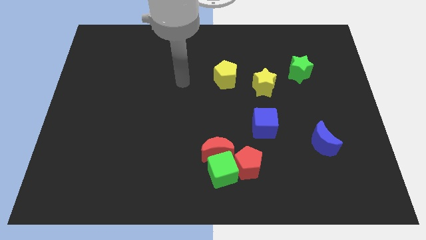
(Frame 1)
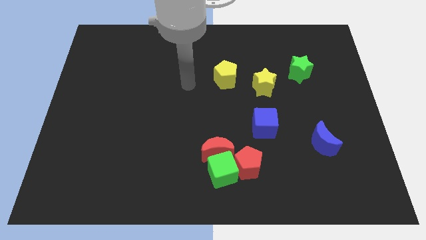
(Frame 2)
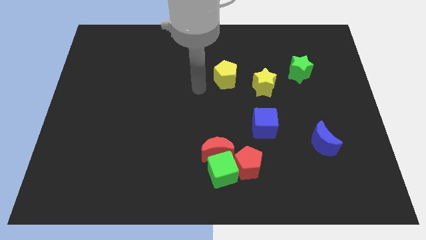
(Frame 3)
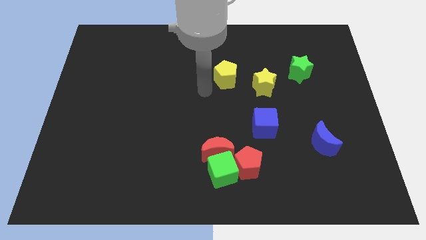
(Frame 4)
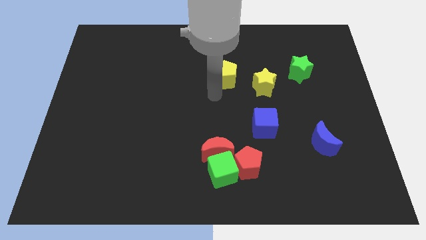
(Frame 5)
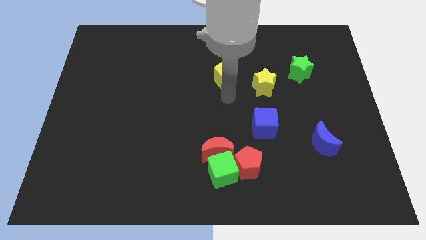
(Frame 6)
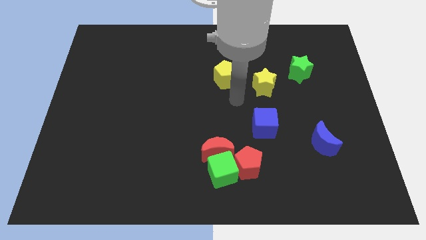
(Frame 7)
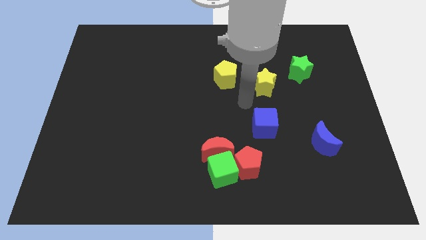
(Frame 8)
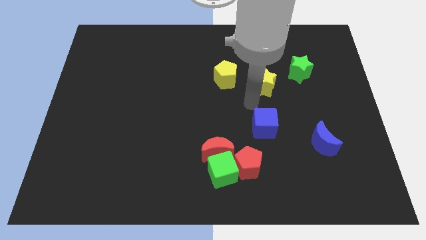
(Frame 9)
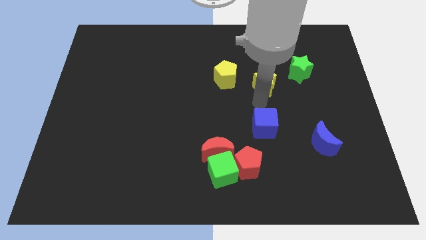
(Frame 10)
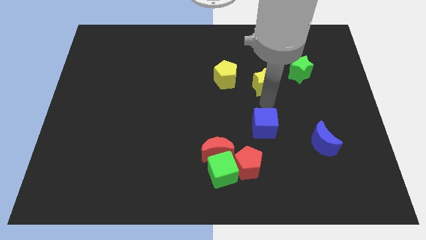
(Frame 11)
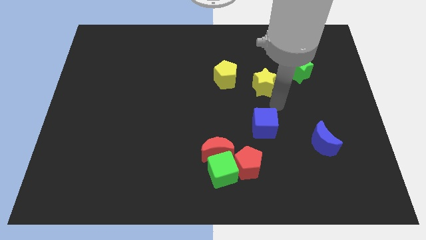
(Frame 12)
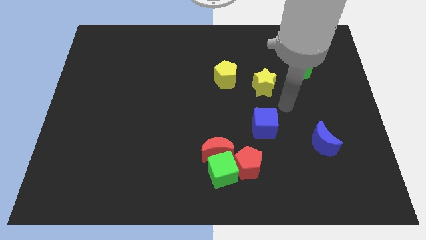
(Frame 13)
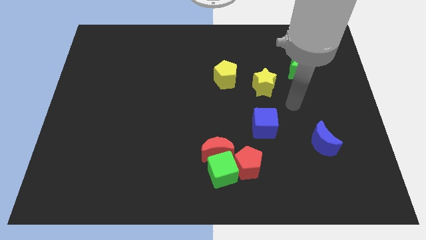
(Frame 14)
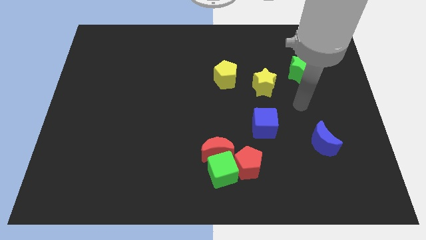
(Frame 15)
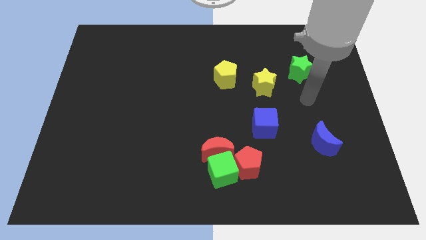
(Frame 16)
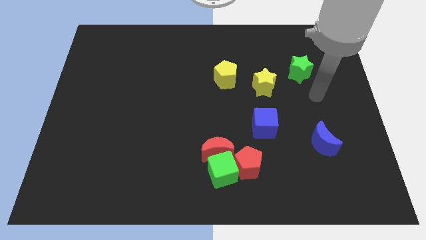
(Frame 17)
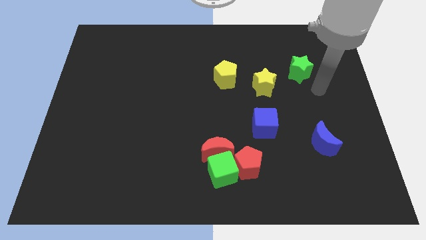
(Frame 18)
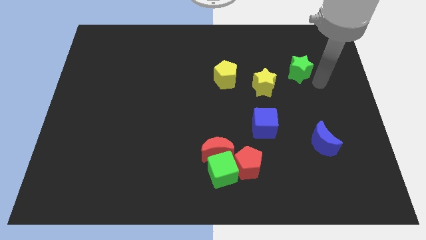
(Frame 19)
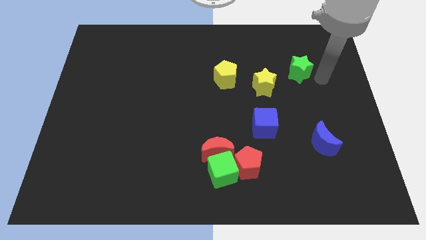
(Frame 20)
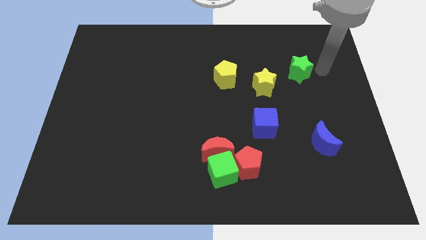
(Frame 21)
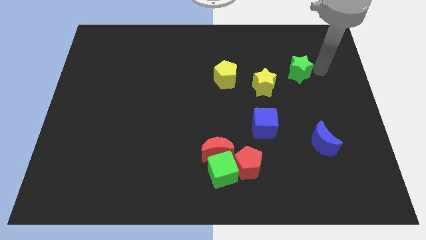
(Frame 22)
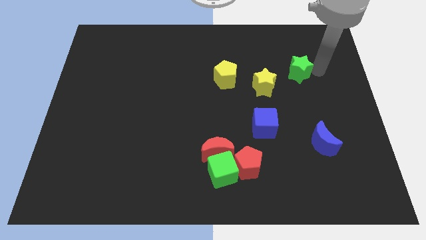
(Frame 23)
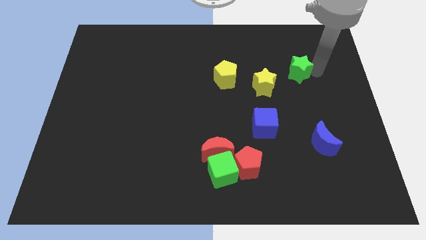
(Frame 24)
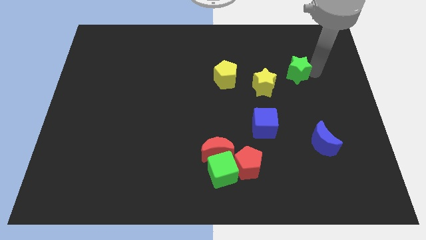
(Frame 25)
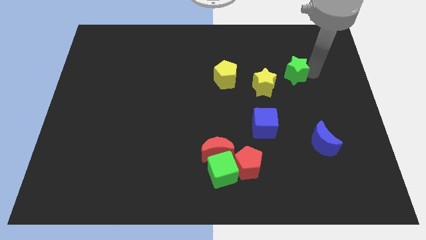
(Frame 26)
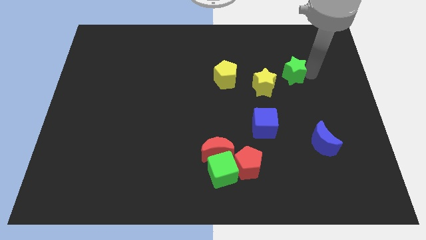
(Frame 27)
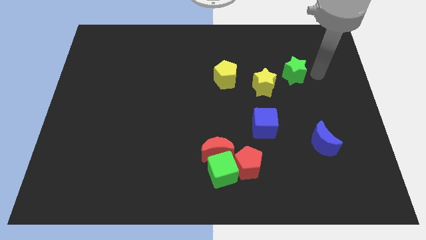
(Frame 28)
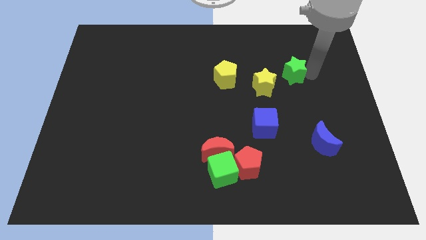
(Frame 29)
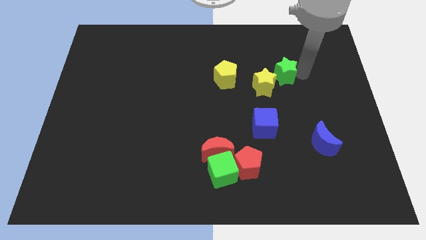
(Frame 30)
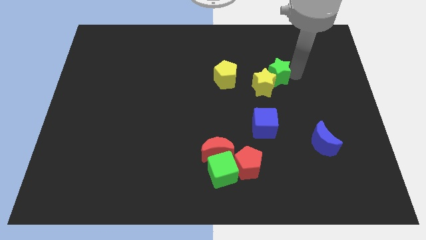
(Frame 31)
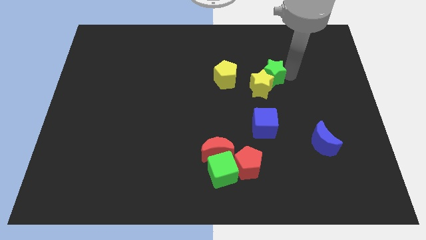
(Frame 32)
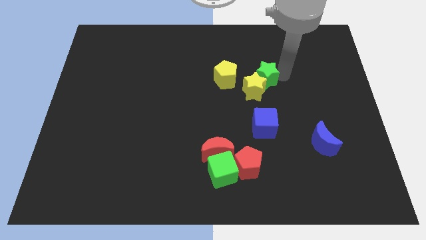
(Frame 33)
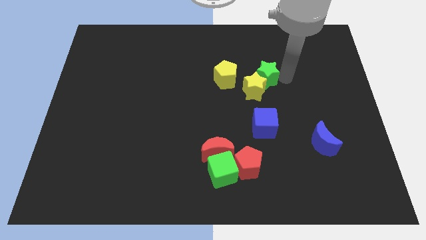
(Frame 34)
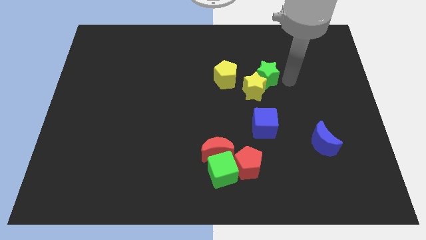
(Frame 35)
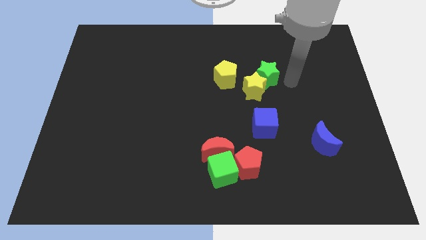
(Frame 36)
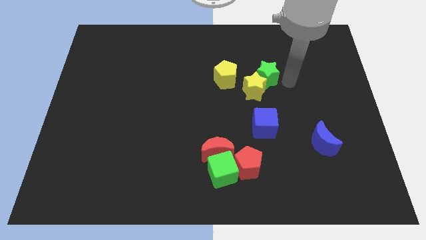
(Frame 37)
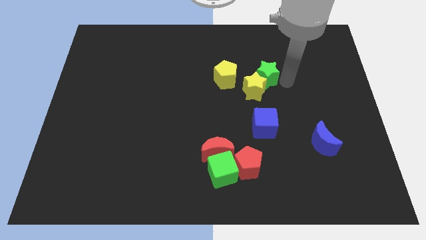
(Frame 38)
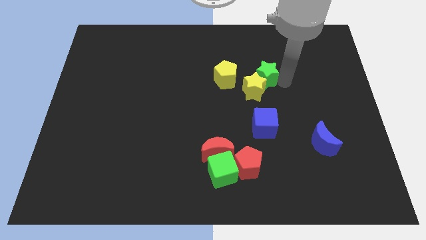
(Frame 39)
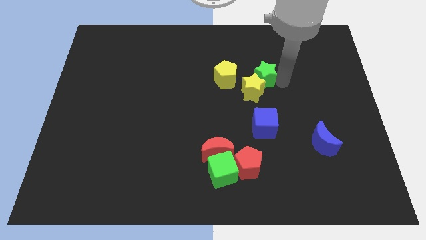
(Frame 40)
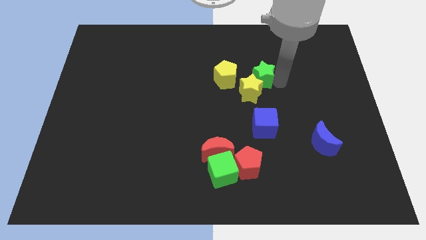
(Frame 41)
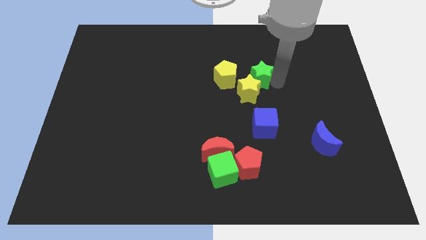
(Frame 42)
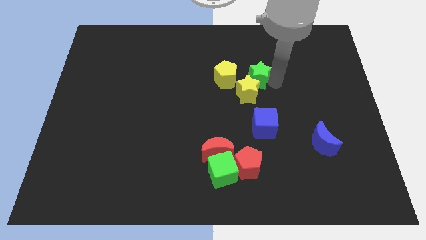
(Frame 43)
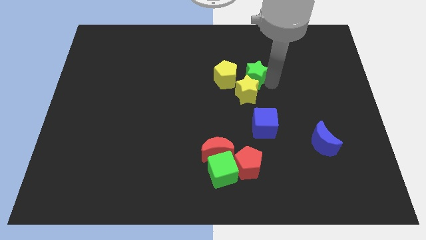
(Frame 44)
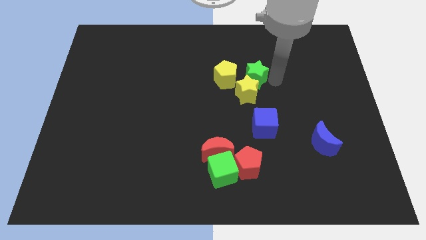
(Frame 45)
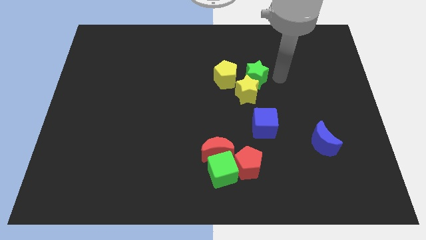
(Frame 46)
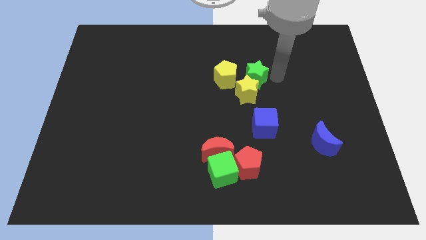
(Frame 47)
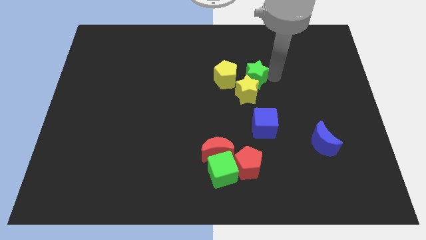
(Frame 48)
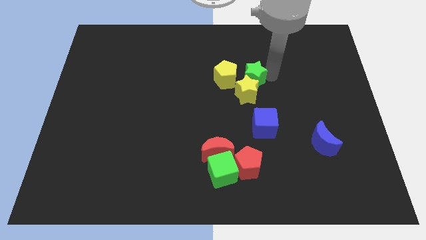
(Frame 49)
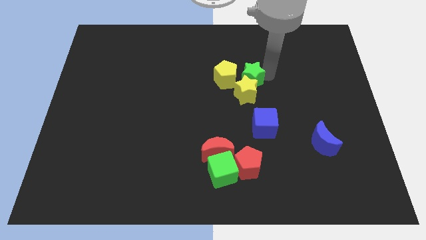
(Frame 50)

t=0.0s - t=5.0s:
put the green star to the yellow pentagon

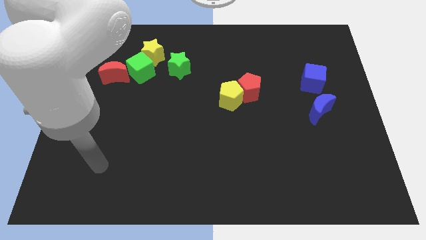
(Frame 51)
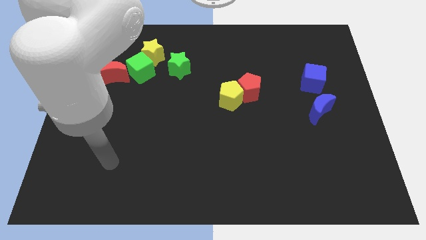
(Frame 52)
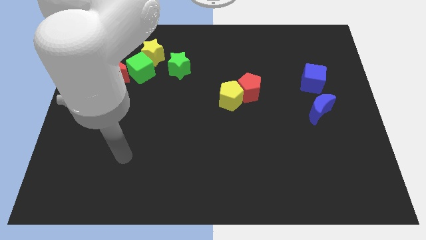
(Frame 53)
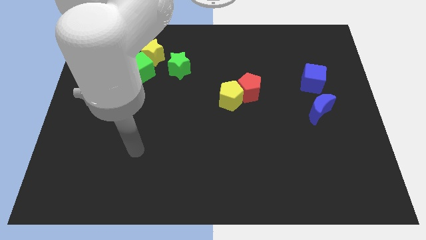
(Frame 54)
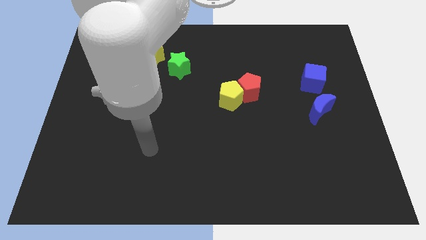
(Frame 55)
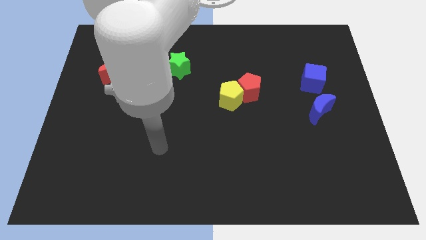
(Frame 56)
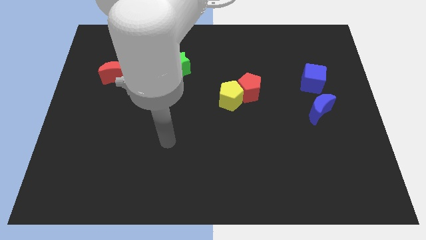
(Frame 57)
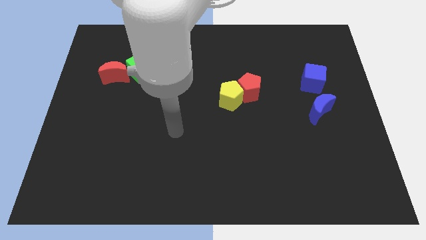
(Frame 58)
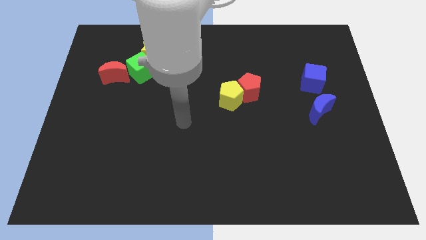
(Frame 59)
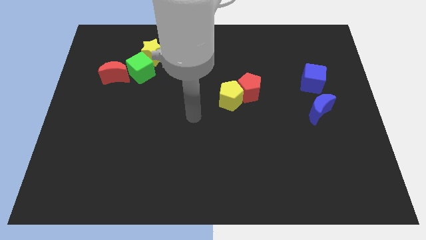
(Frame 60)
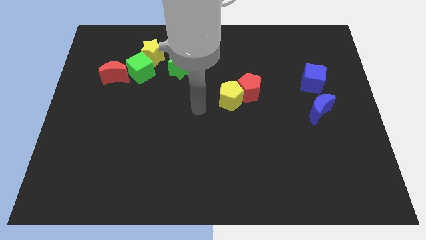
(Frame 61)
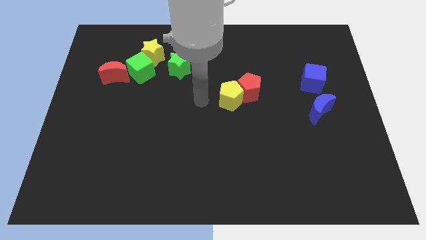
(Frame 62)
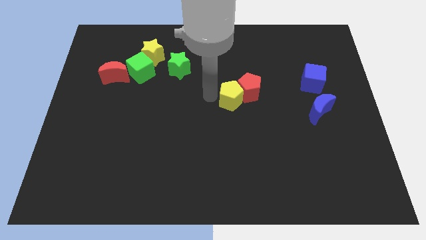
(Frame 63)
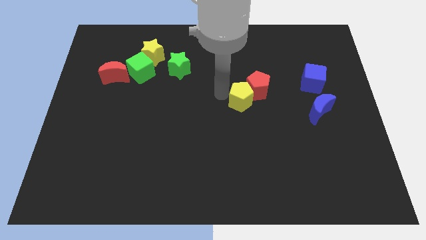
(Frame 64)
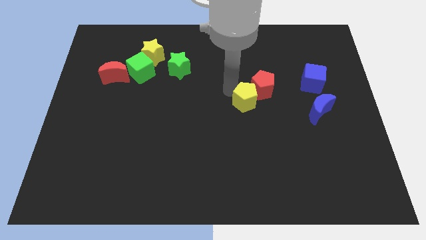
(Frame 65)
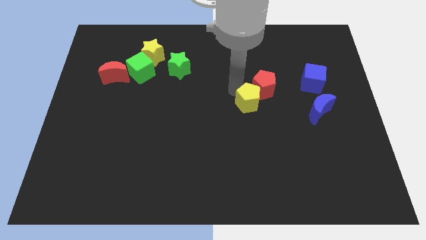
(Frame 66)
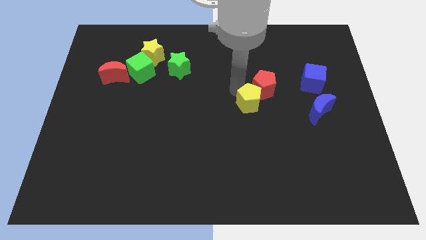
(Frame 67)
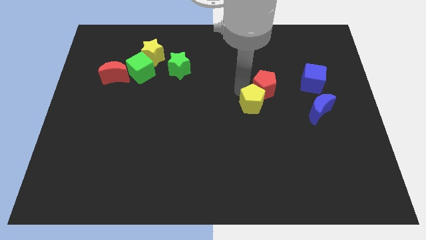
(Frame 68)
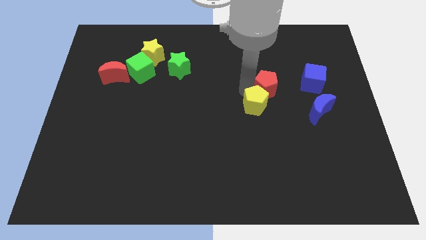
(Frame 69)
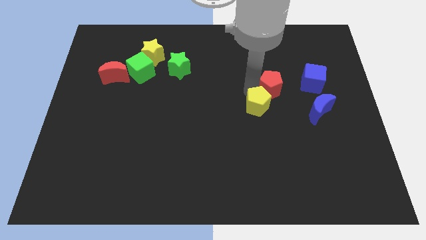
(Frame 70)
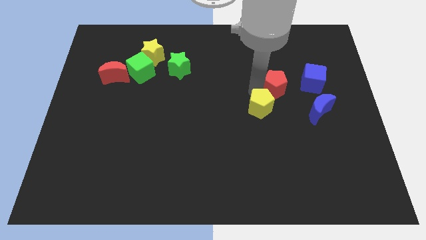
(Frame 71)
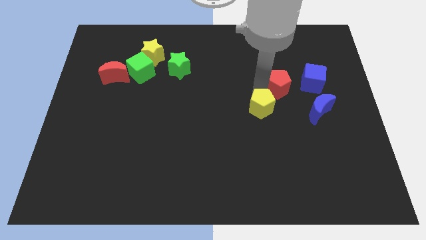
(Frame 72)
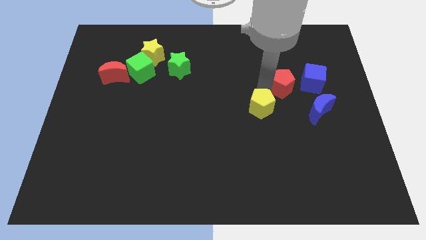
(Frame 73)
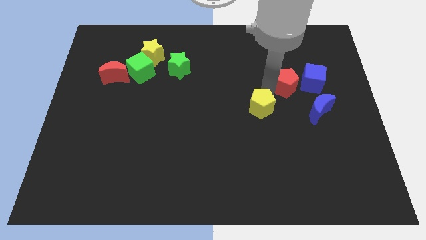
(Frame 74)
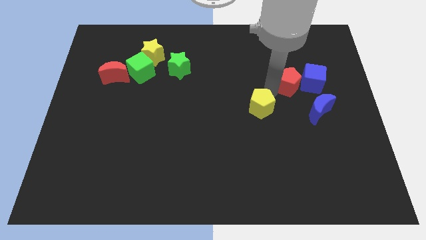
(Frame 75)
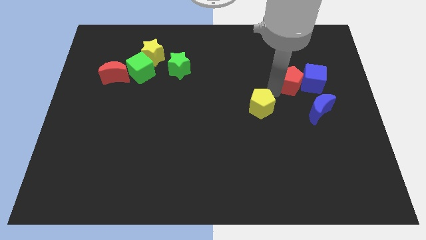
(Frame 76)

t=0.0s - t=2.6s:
push the red pentagon towards the blue cube
